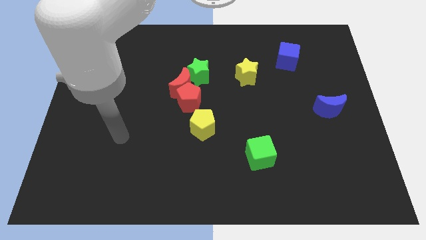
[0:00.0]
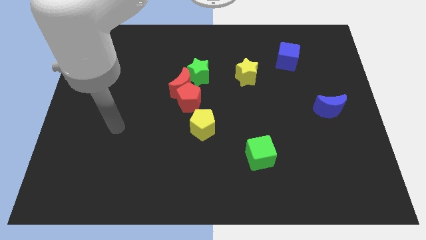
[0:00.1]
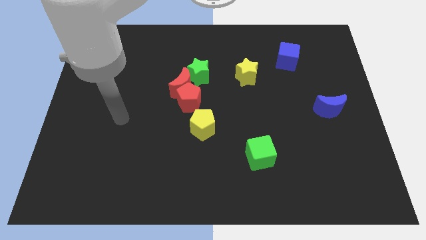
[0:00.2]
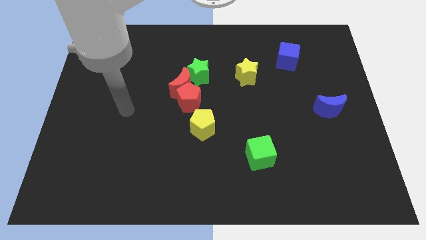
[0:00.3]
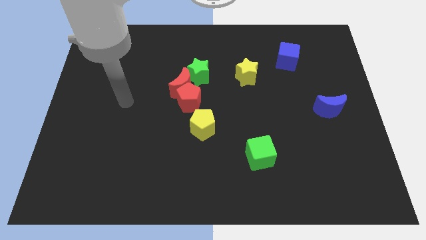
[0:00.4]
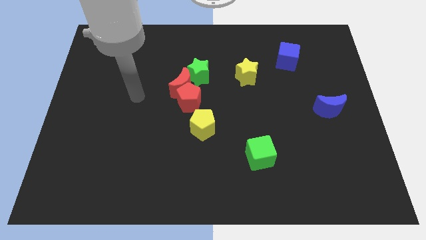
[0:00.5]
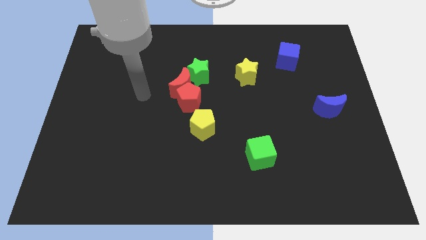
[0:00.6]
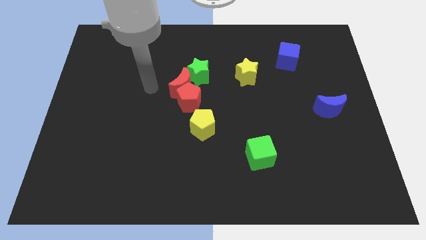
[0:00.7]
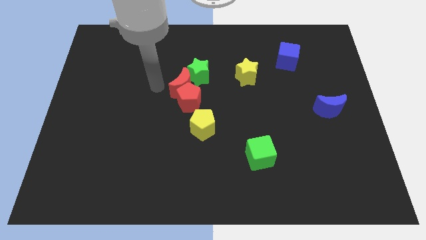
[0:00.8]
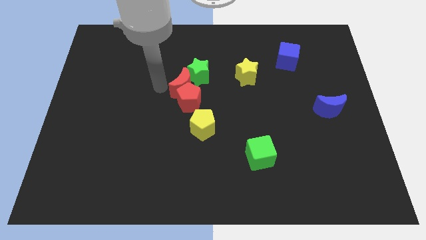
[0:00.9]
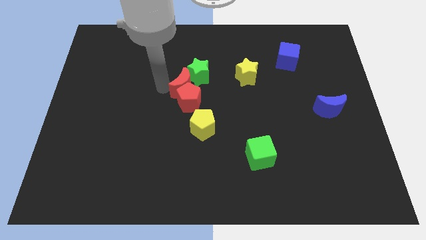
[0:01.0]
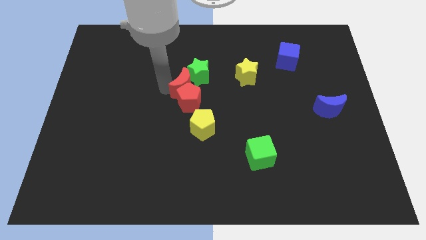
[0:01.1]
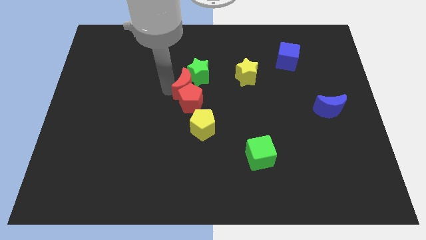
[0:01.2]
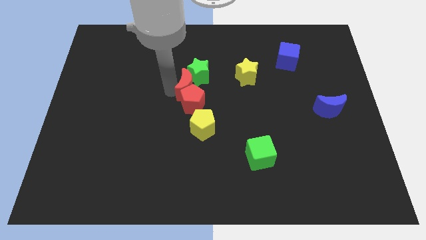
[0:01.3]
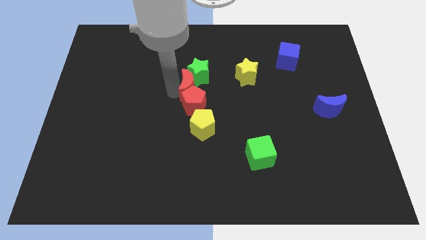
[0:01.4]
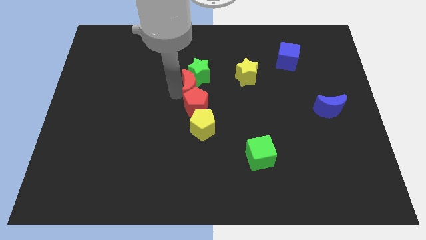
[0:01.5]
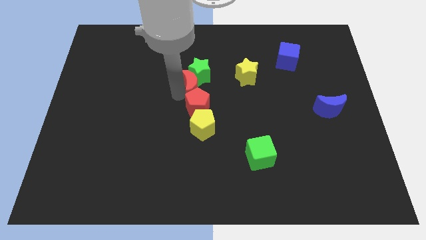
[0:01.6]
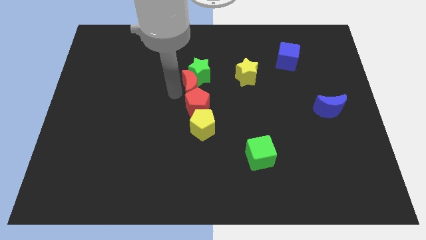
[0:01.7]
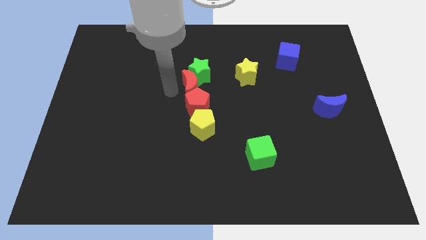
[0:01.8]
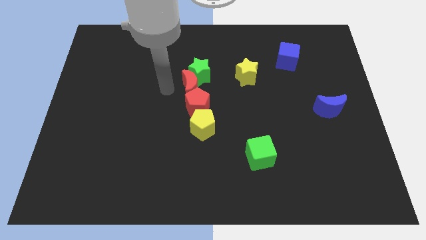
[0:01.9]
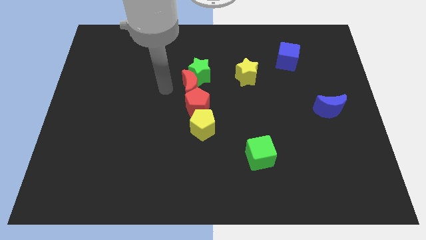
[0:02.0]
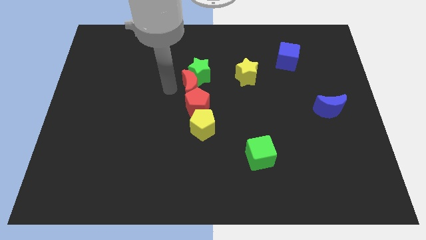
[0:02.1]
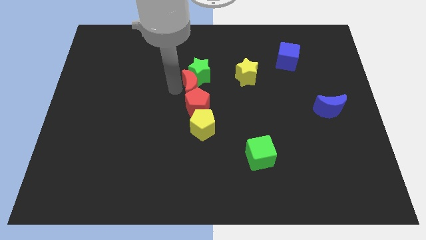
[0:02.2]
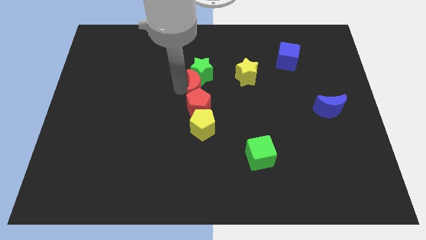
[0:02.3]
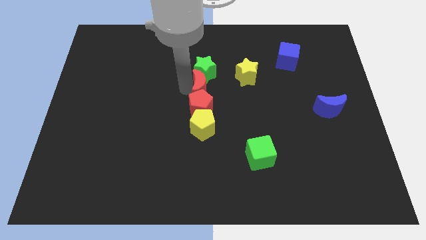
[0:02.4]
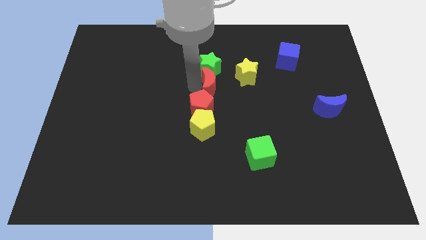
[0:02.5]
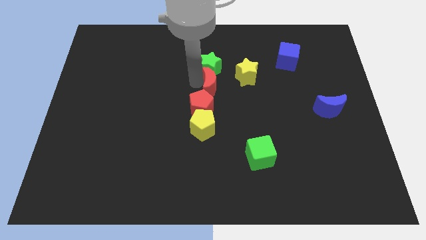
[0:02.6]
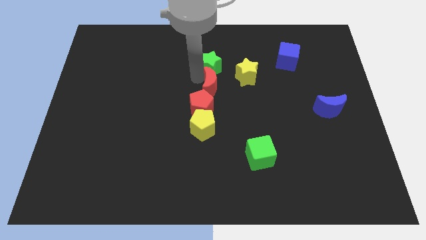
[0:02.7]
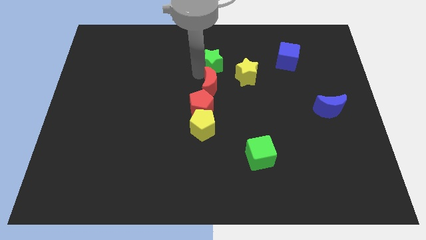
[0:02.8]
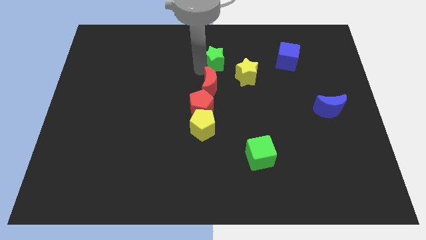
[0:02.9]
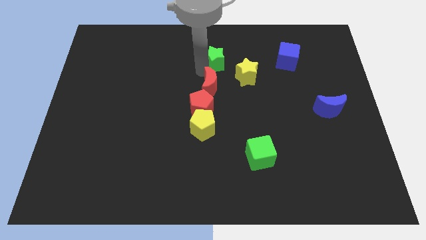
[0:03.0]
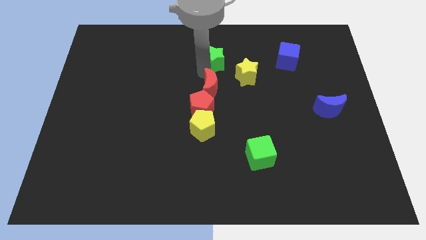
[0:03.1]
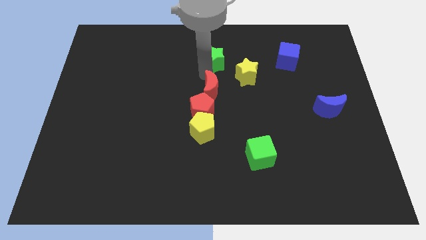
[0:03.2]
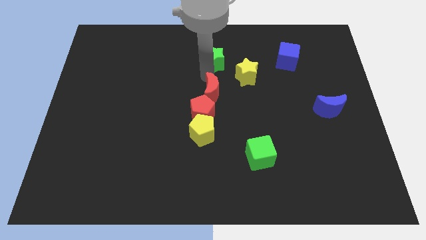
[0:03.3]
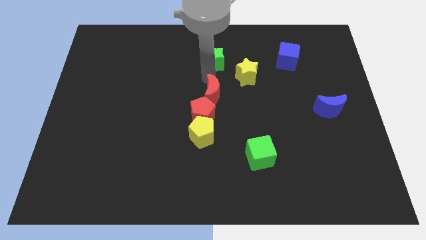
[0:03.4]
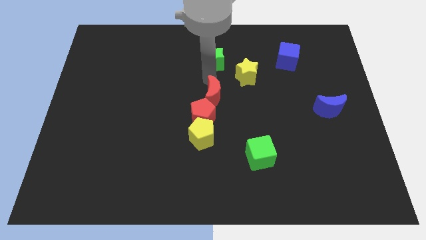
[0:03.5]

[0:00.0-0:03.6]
slide the red moon down and then to the right slightly

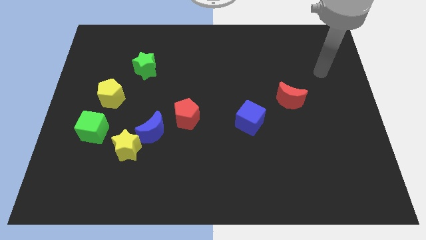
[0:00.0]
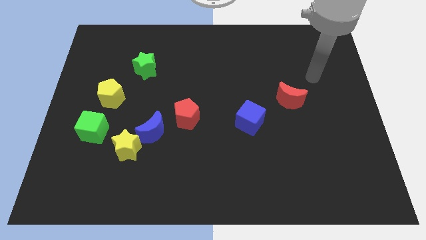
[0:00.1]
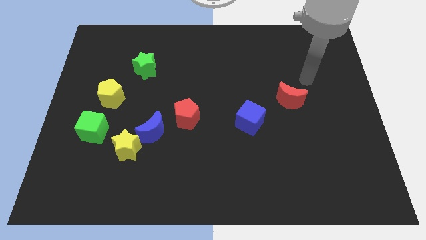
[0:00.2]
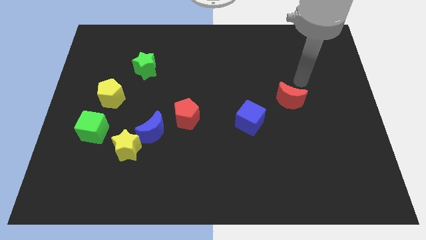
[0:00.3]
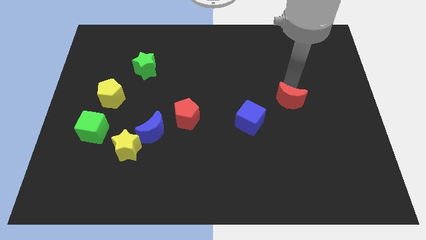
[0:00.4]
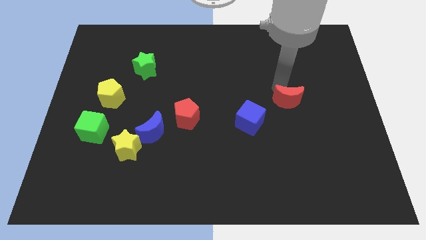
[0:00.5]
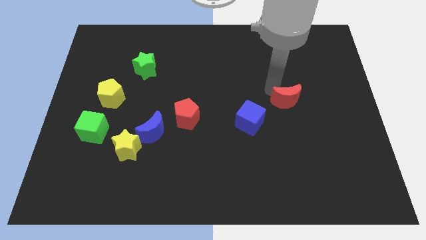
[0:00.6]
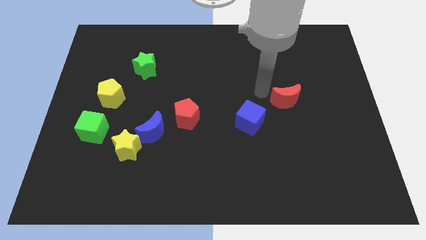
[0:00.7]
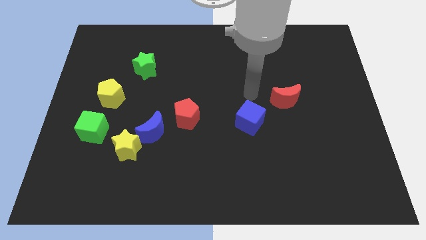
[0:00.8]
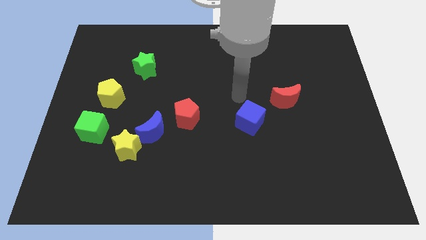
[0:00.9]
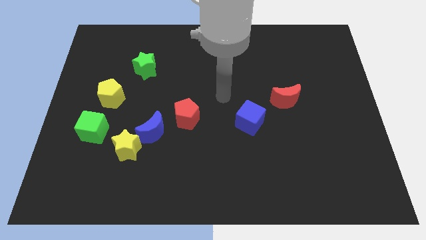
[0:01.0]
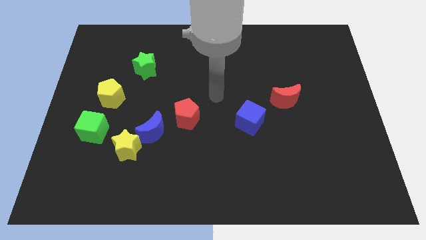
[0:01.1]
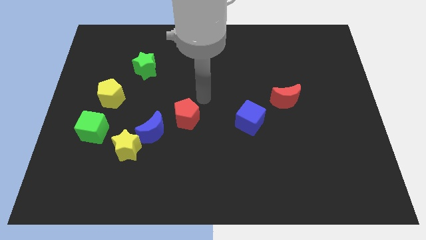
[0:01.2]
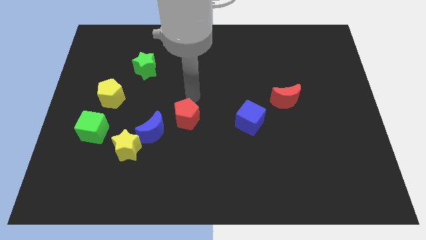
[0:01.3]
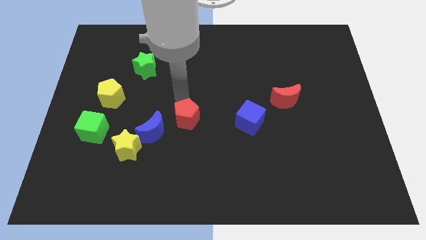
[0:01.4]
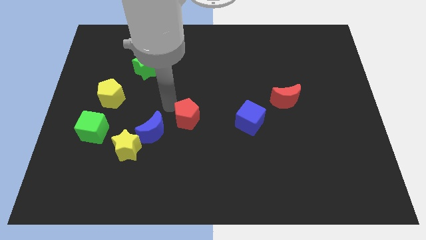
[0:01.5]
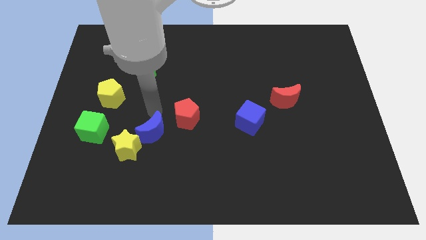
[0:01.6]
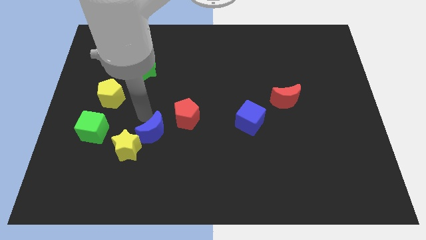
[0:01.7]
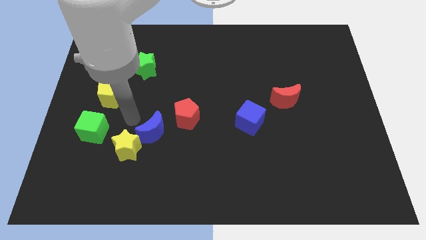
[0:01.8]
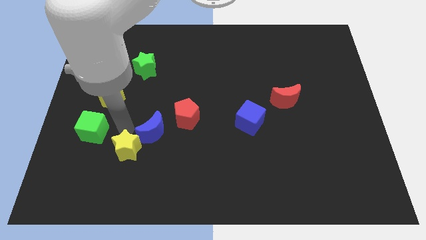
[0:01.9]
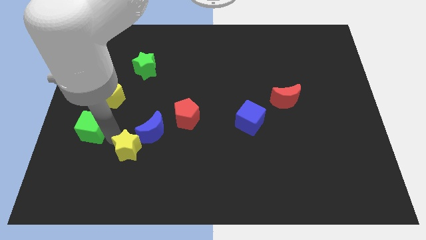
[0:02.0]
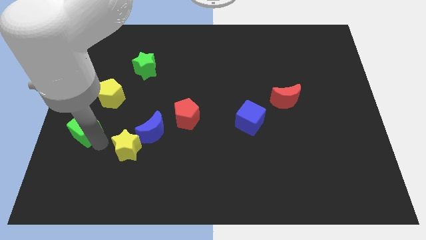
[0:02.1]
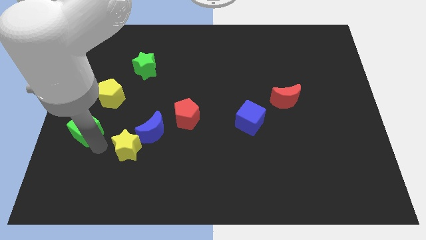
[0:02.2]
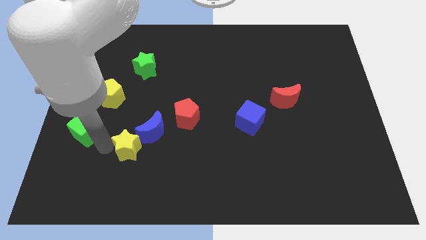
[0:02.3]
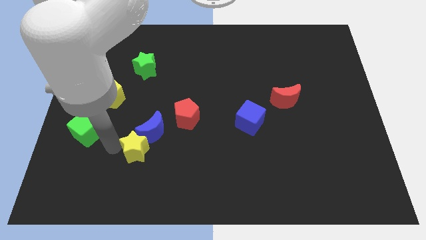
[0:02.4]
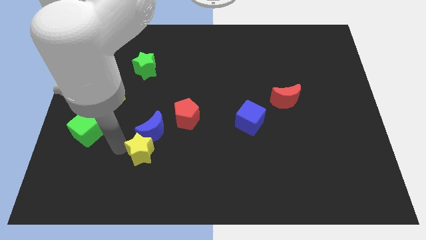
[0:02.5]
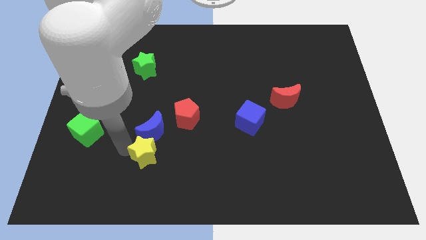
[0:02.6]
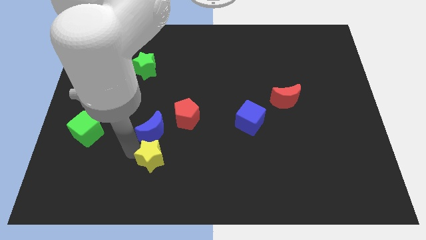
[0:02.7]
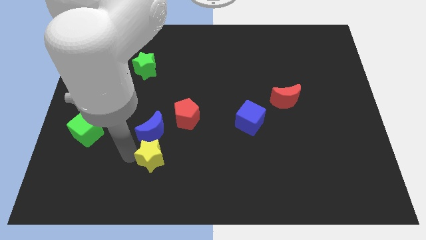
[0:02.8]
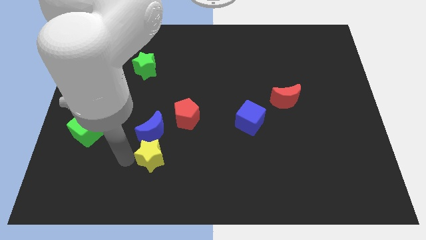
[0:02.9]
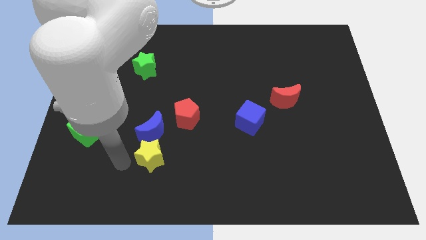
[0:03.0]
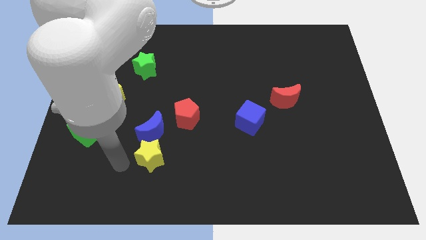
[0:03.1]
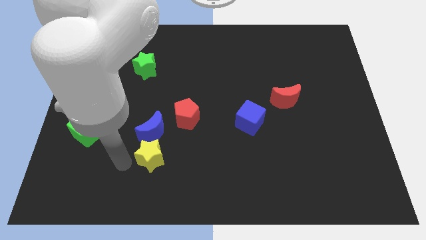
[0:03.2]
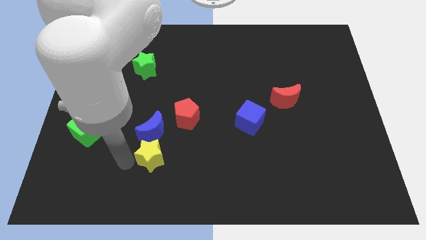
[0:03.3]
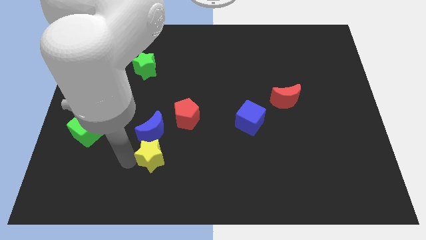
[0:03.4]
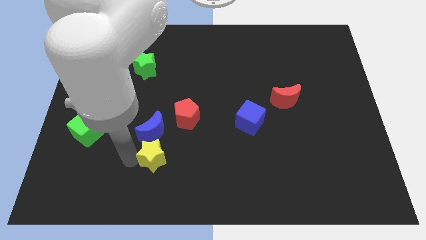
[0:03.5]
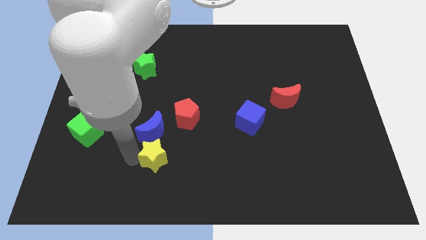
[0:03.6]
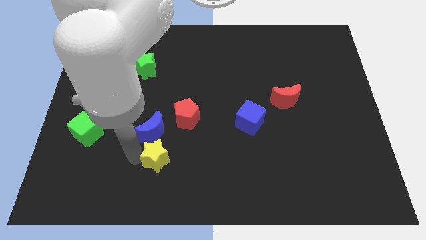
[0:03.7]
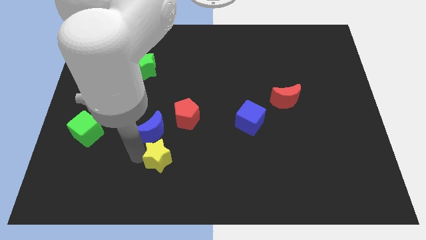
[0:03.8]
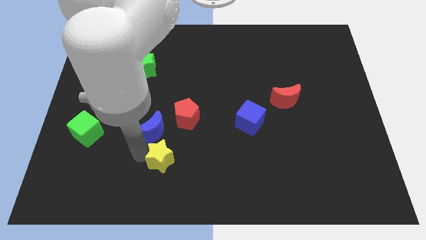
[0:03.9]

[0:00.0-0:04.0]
slightly move the yellow star right
